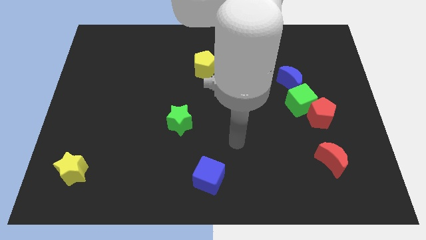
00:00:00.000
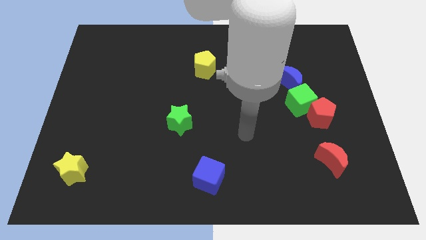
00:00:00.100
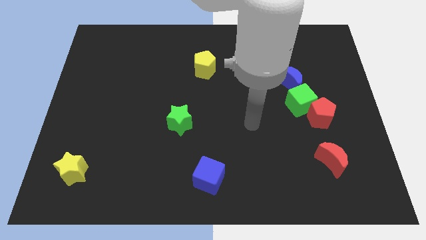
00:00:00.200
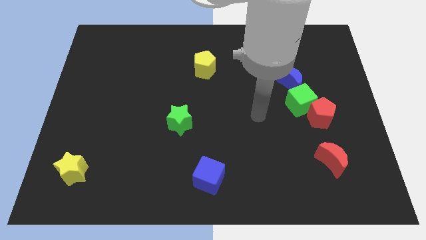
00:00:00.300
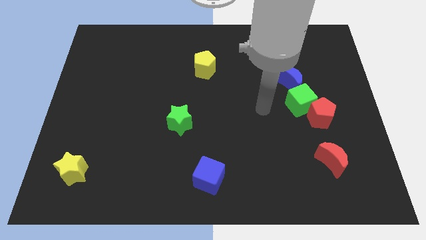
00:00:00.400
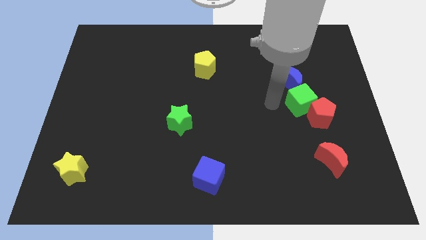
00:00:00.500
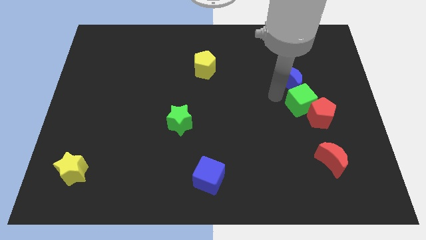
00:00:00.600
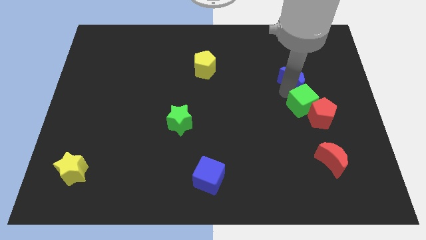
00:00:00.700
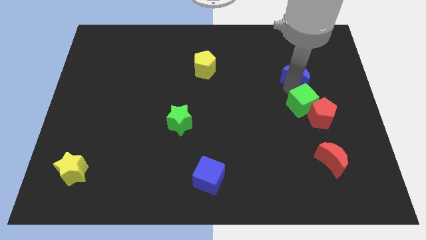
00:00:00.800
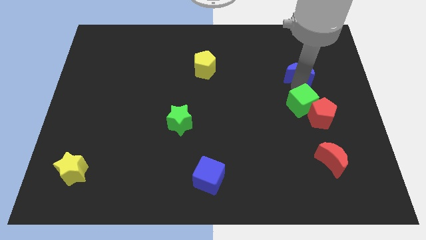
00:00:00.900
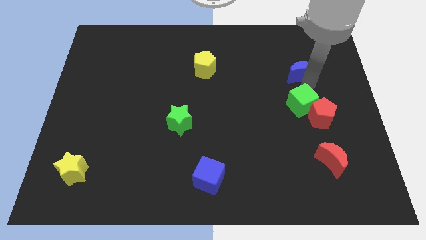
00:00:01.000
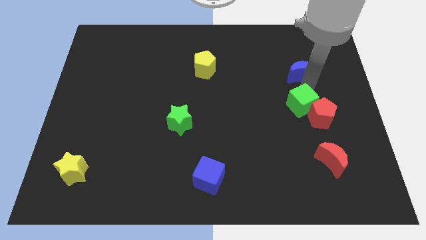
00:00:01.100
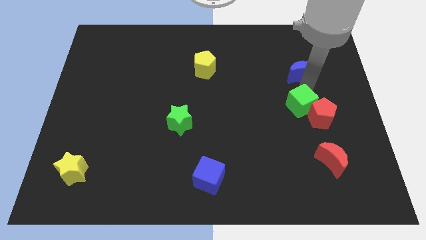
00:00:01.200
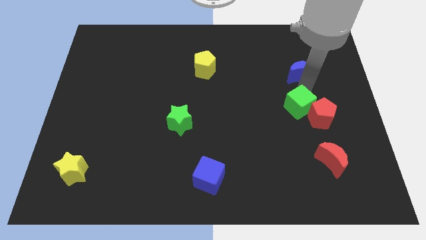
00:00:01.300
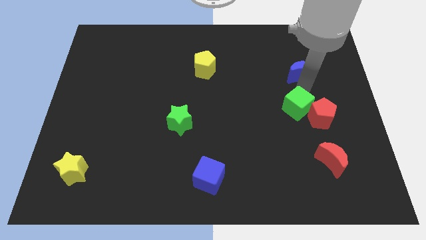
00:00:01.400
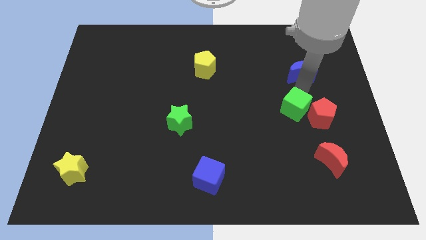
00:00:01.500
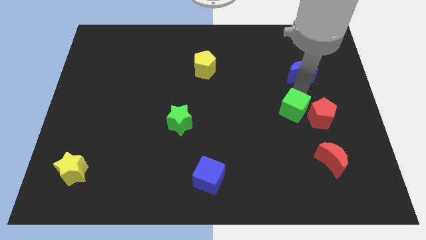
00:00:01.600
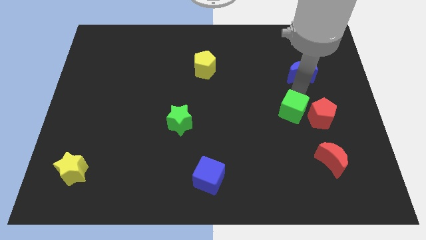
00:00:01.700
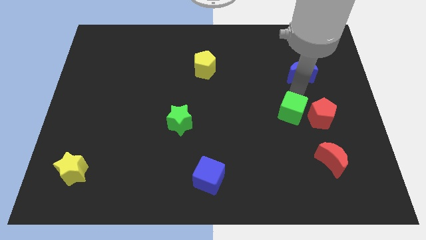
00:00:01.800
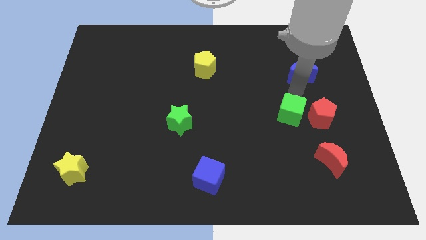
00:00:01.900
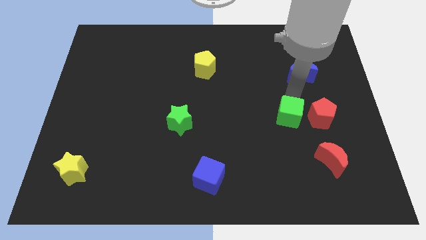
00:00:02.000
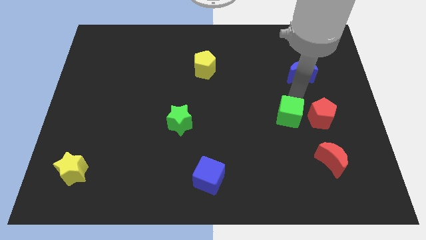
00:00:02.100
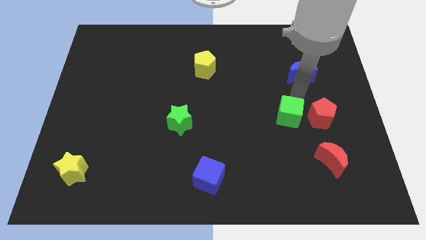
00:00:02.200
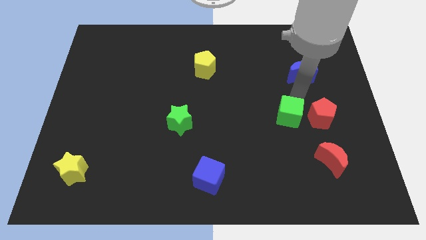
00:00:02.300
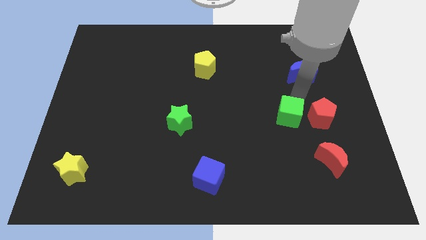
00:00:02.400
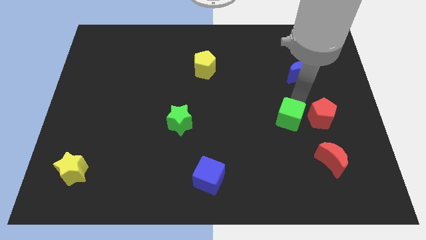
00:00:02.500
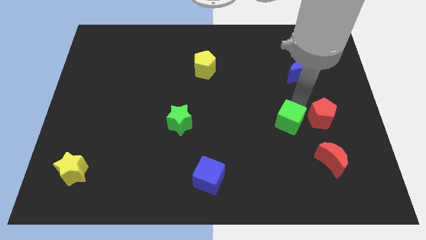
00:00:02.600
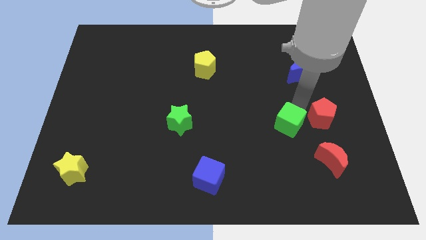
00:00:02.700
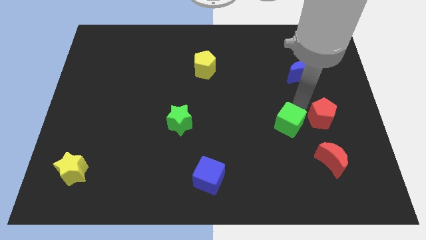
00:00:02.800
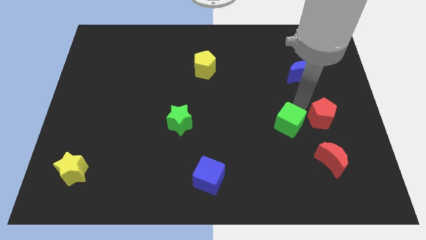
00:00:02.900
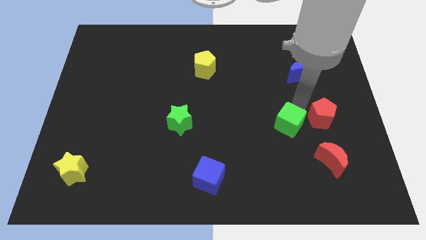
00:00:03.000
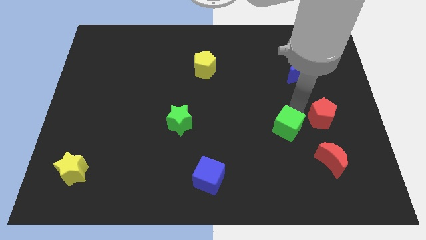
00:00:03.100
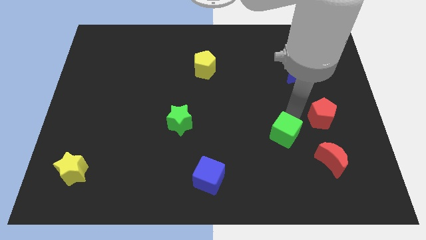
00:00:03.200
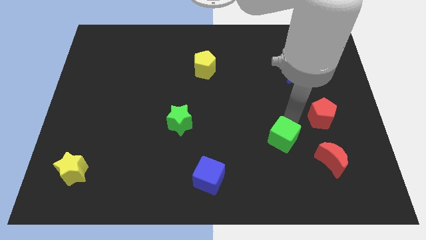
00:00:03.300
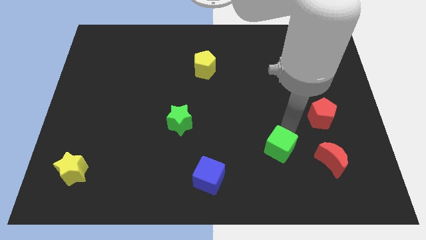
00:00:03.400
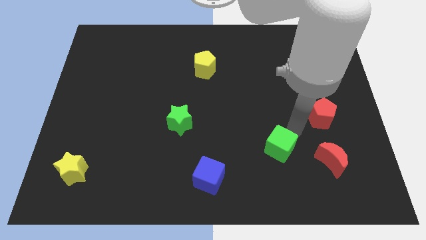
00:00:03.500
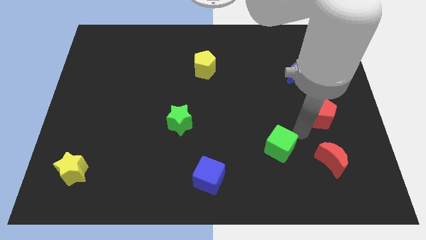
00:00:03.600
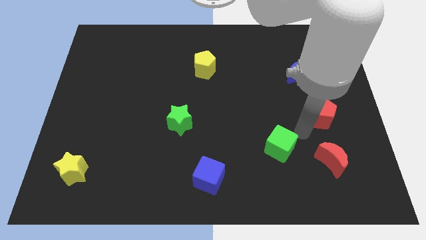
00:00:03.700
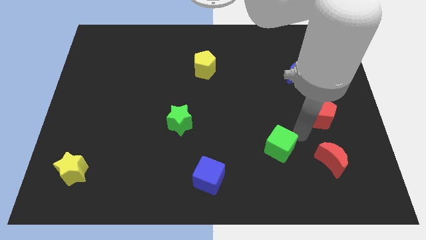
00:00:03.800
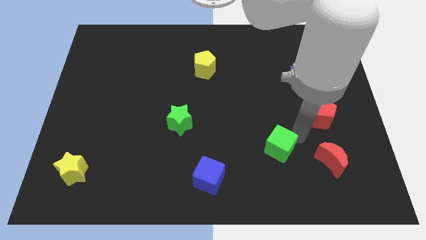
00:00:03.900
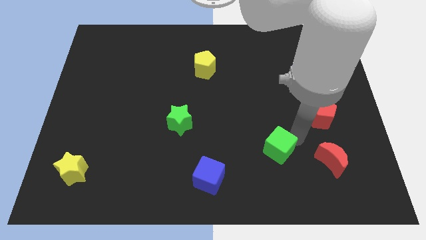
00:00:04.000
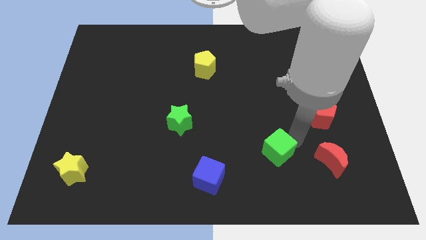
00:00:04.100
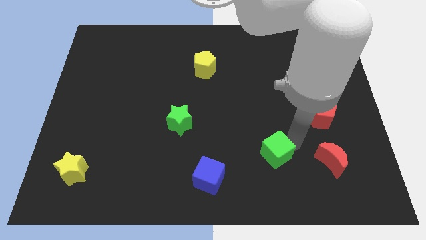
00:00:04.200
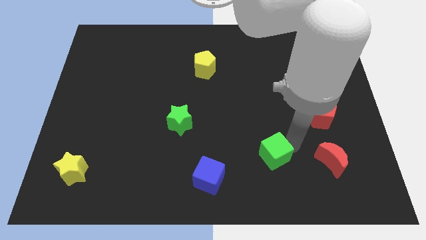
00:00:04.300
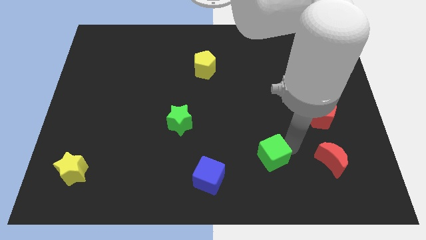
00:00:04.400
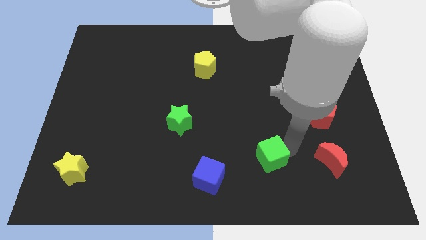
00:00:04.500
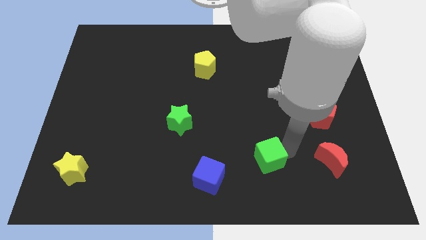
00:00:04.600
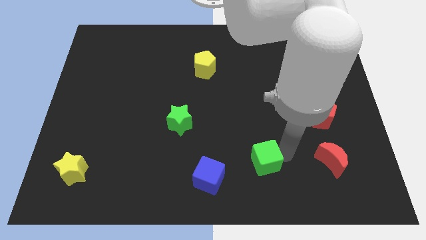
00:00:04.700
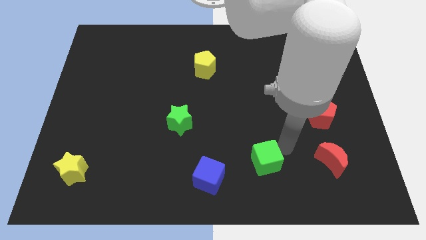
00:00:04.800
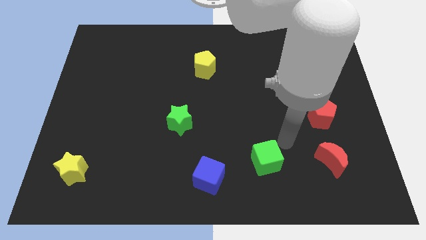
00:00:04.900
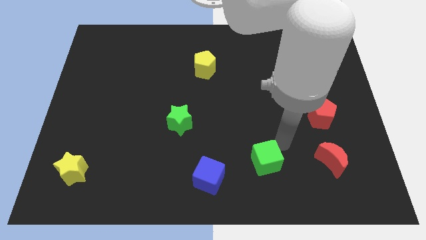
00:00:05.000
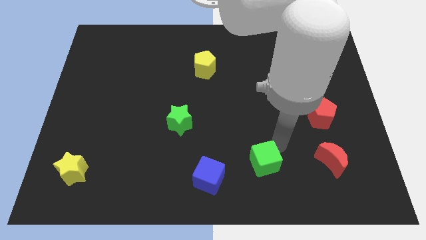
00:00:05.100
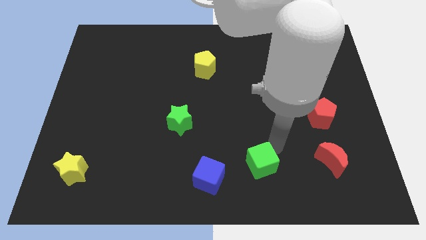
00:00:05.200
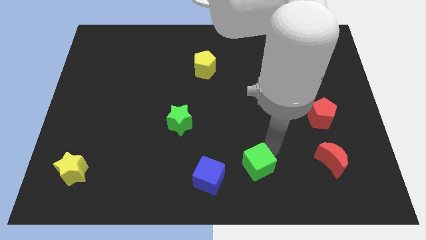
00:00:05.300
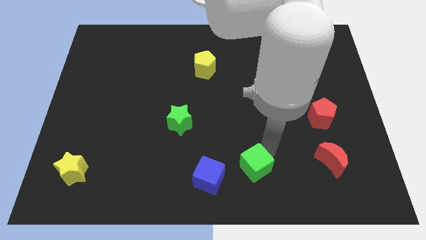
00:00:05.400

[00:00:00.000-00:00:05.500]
move the green cube to the bottom side

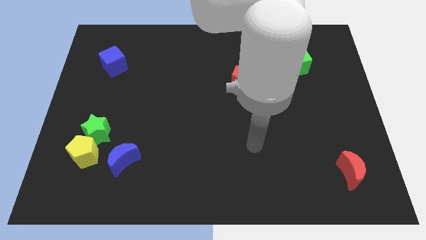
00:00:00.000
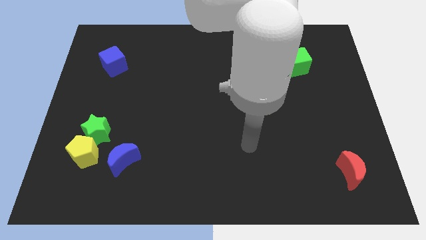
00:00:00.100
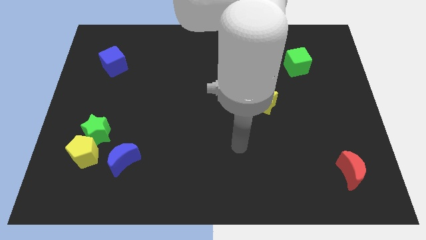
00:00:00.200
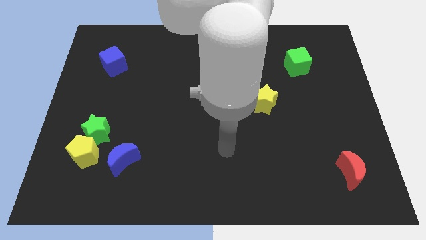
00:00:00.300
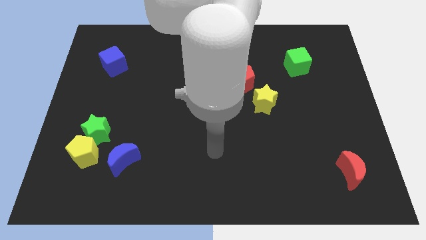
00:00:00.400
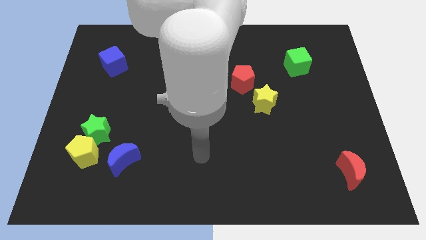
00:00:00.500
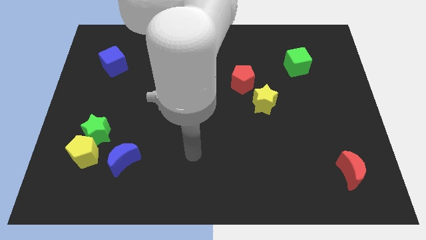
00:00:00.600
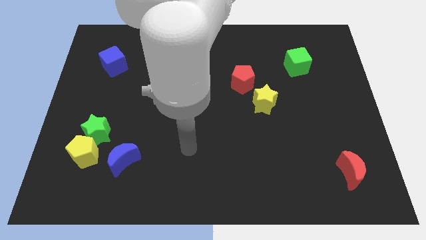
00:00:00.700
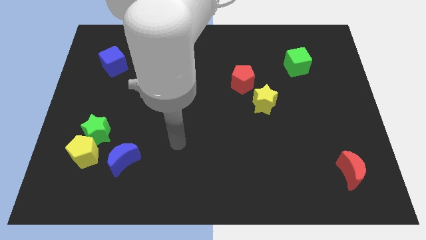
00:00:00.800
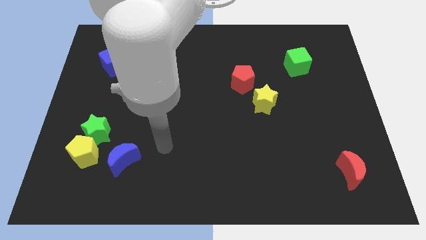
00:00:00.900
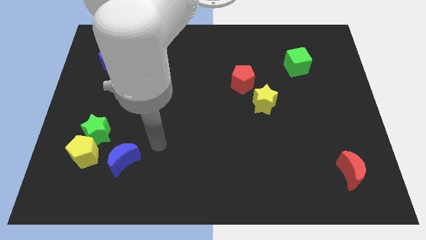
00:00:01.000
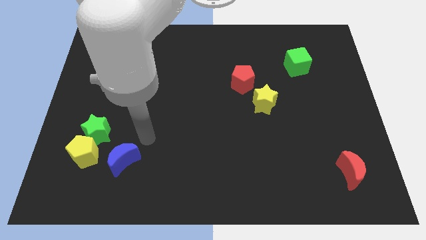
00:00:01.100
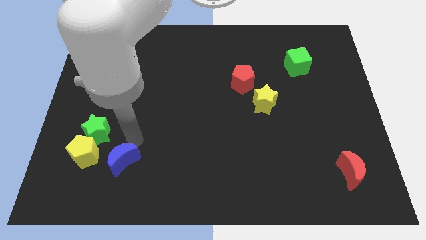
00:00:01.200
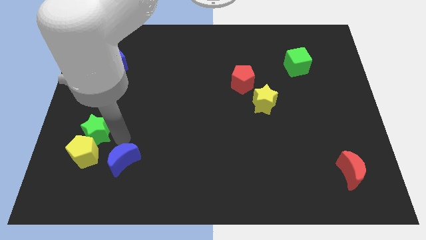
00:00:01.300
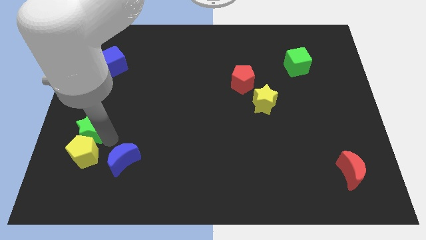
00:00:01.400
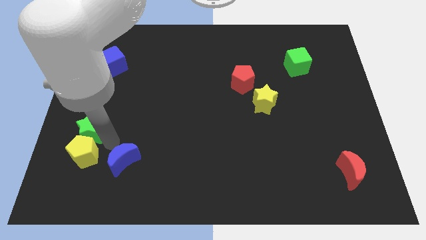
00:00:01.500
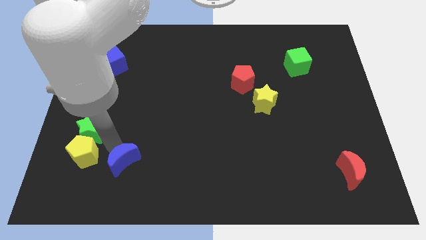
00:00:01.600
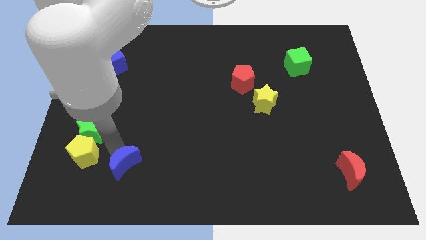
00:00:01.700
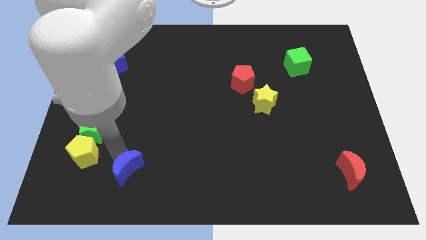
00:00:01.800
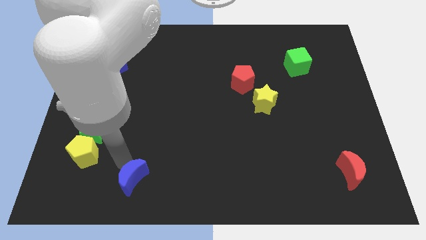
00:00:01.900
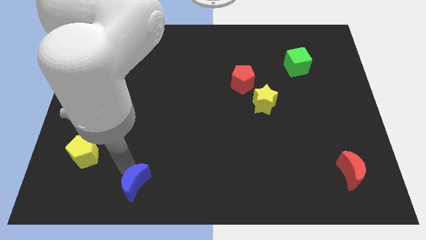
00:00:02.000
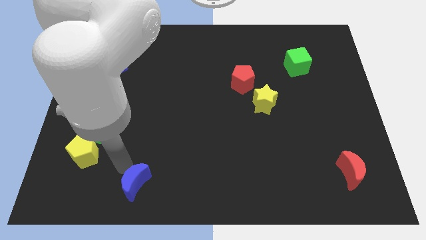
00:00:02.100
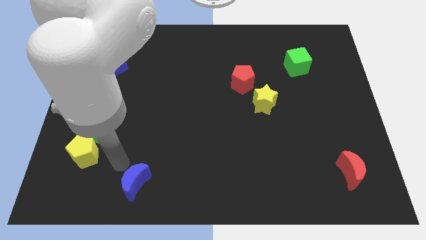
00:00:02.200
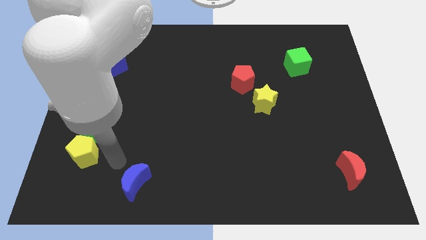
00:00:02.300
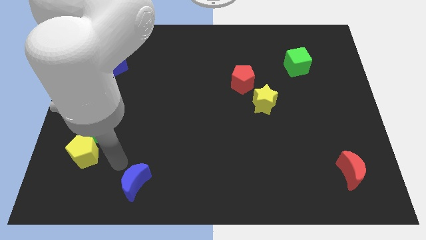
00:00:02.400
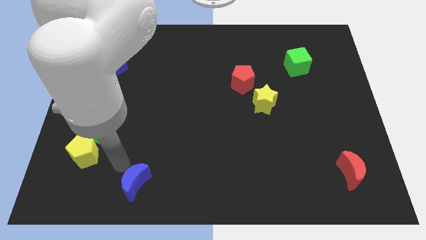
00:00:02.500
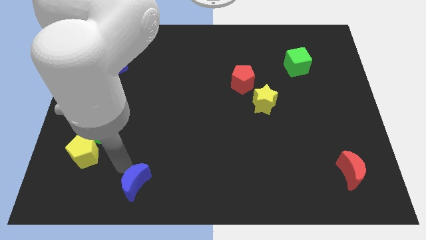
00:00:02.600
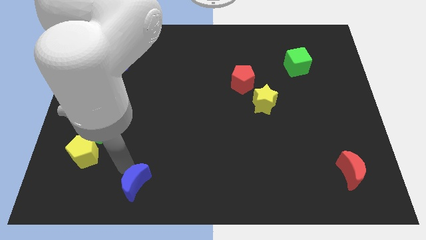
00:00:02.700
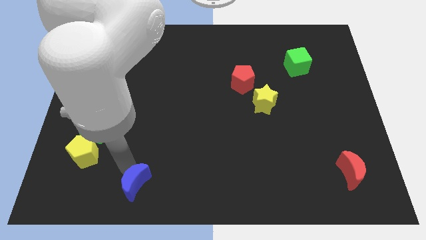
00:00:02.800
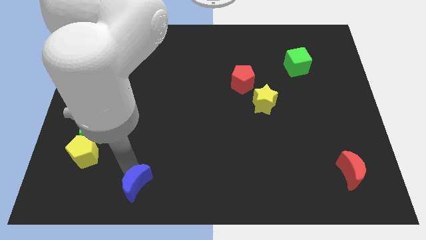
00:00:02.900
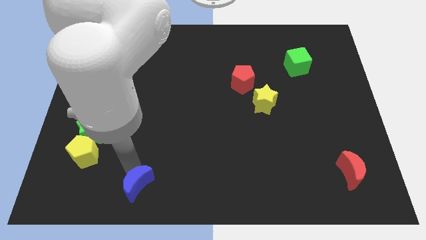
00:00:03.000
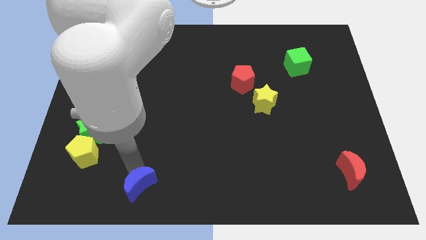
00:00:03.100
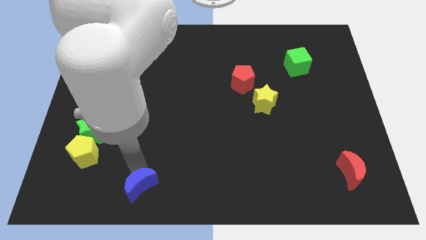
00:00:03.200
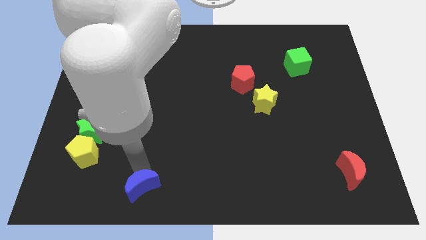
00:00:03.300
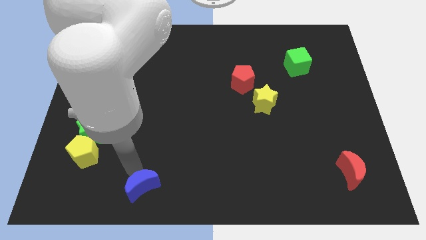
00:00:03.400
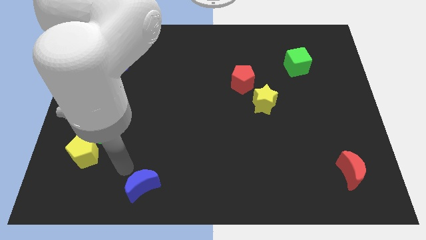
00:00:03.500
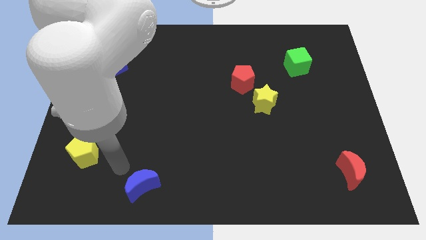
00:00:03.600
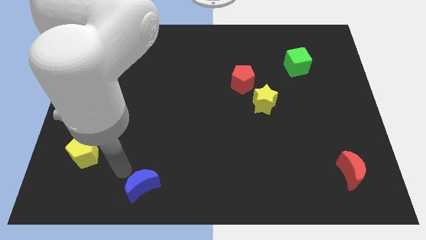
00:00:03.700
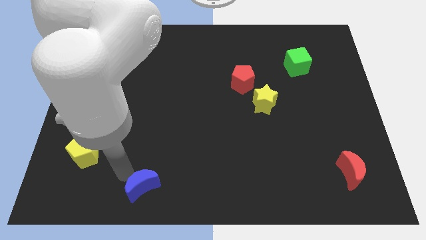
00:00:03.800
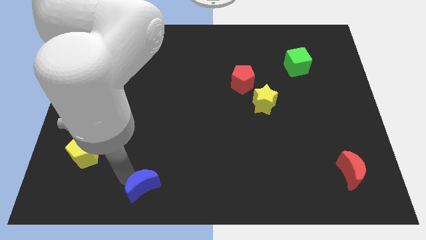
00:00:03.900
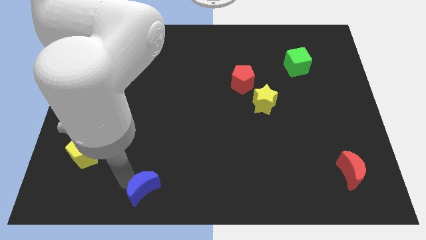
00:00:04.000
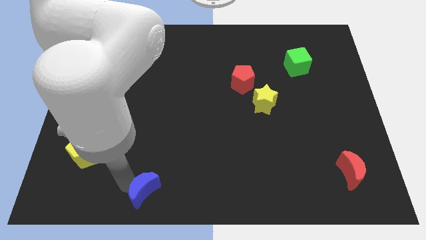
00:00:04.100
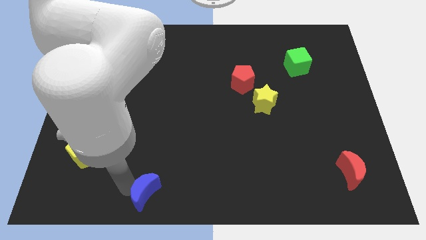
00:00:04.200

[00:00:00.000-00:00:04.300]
slide the blue moon to the bottom
